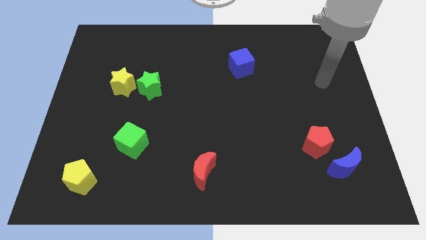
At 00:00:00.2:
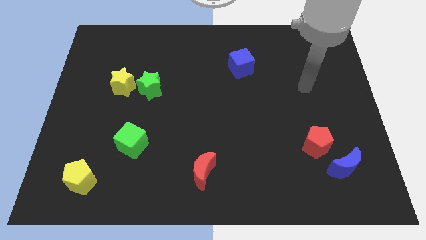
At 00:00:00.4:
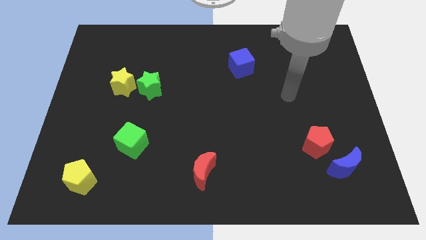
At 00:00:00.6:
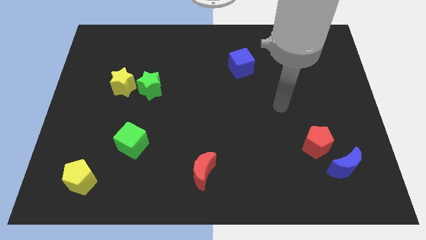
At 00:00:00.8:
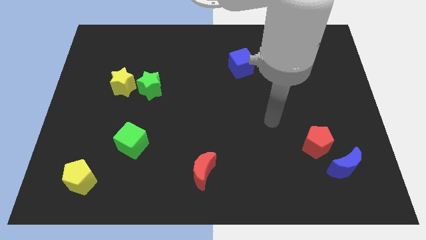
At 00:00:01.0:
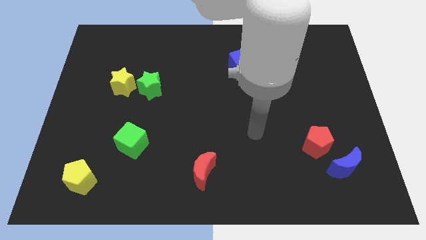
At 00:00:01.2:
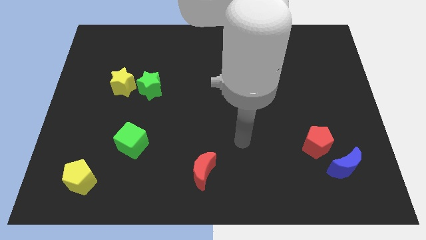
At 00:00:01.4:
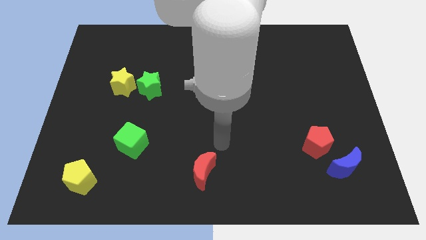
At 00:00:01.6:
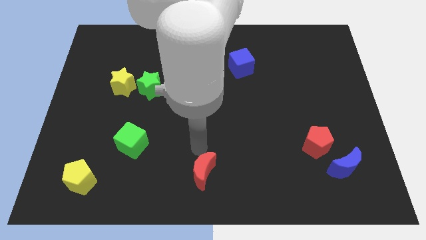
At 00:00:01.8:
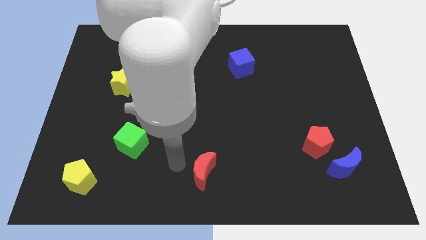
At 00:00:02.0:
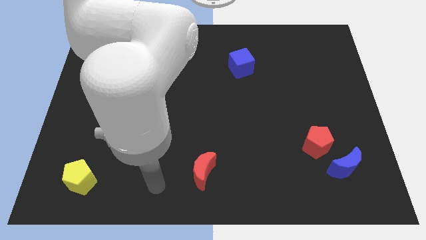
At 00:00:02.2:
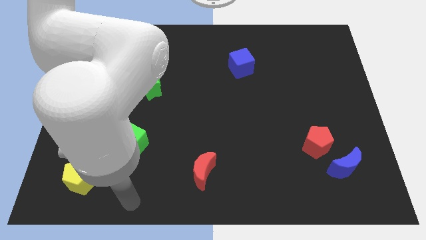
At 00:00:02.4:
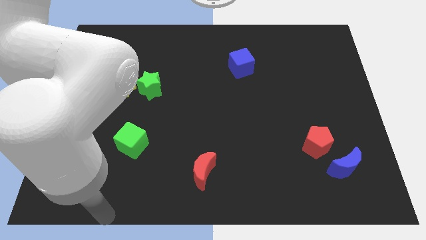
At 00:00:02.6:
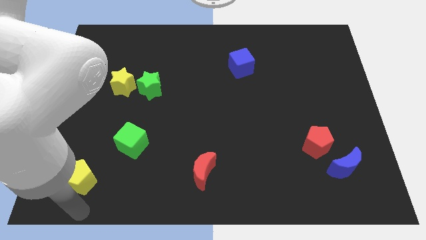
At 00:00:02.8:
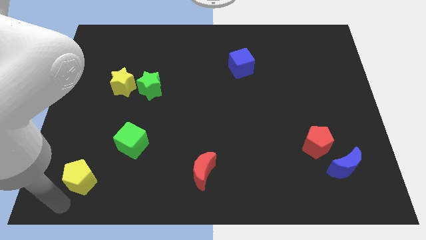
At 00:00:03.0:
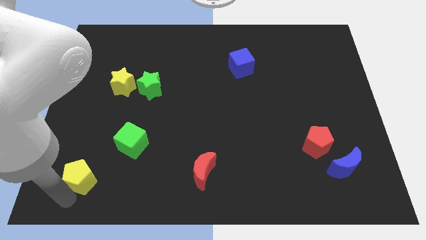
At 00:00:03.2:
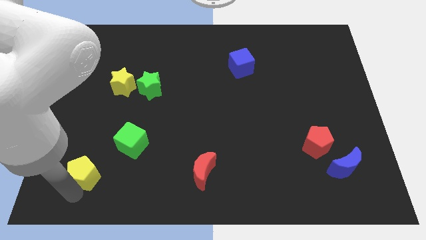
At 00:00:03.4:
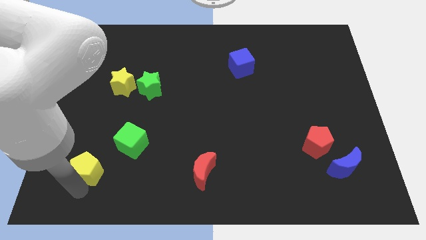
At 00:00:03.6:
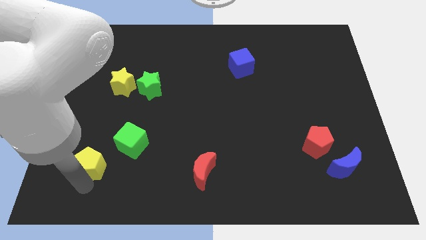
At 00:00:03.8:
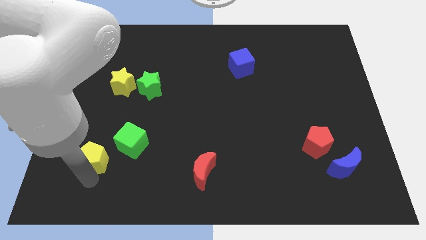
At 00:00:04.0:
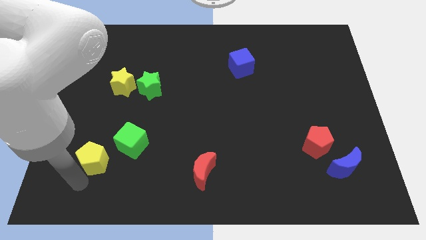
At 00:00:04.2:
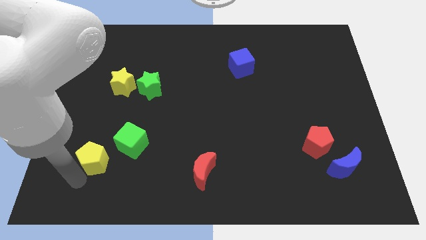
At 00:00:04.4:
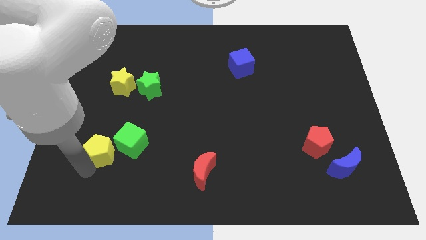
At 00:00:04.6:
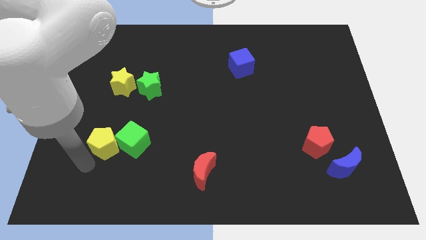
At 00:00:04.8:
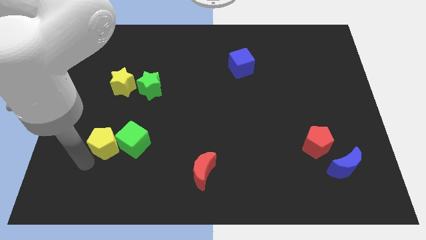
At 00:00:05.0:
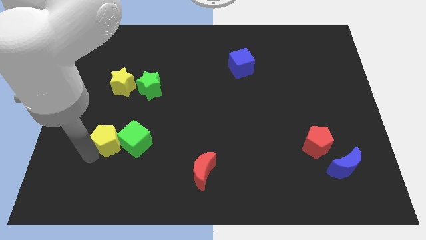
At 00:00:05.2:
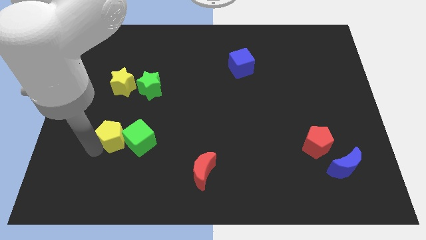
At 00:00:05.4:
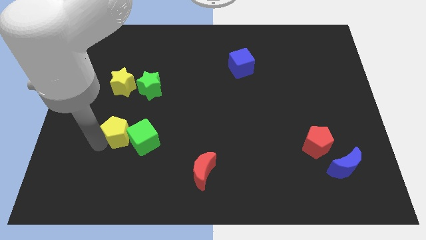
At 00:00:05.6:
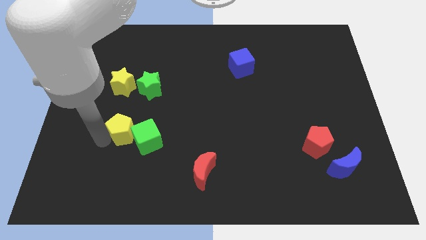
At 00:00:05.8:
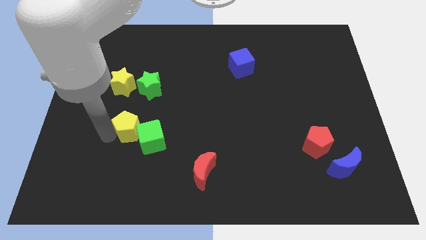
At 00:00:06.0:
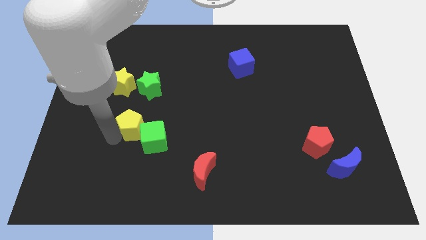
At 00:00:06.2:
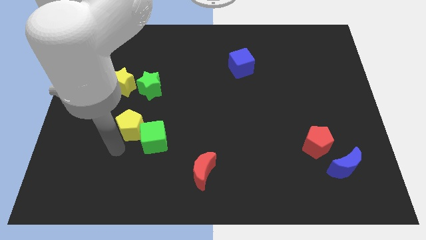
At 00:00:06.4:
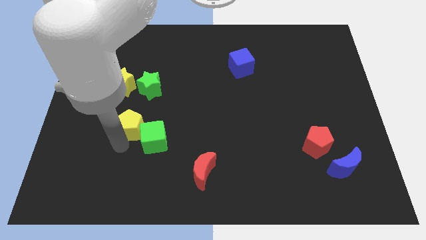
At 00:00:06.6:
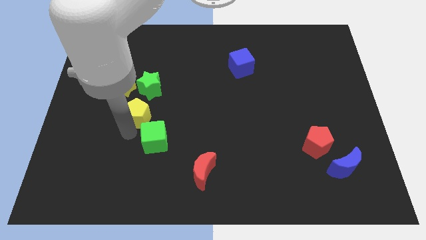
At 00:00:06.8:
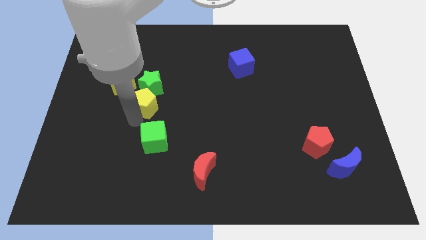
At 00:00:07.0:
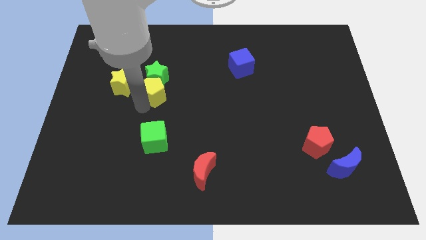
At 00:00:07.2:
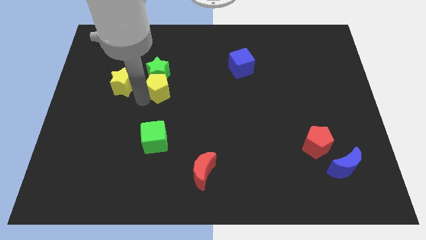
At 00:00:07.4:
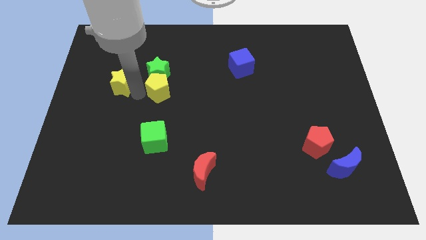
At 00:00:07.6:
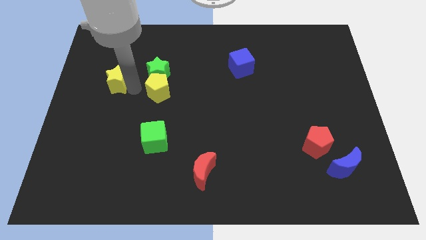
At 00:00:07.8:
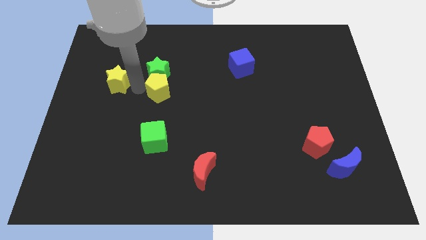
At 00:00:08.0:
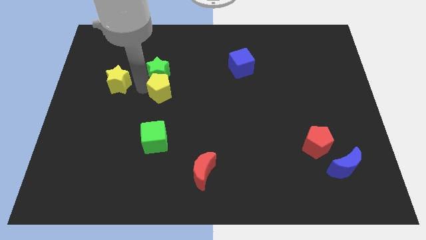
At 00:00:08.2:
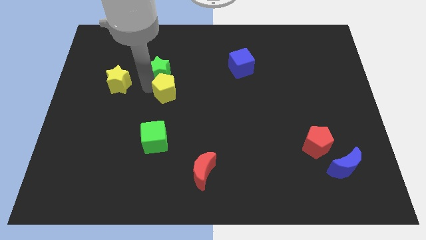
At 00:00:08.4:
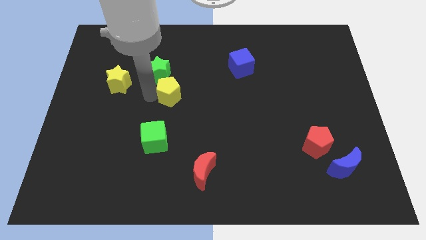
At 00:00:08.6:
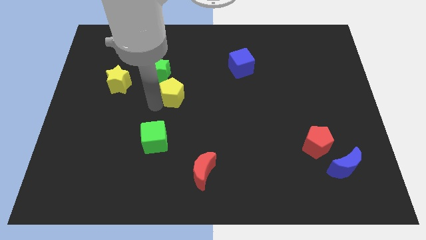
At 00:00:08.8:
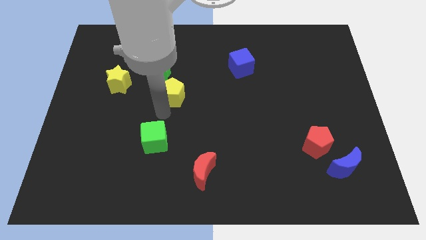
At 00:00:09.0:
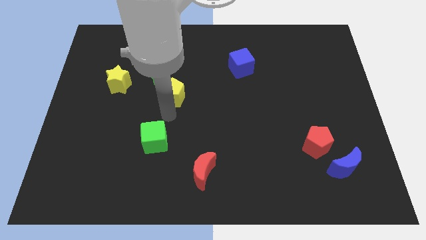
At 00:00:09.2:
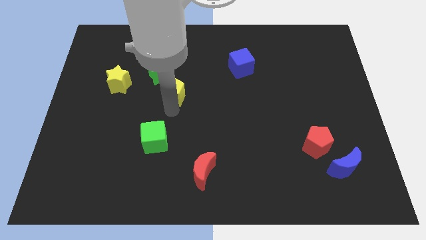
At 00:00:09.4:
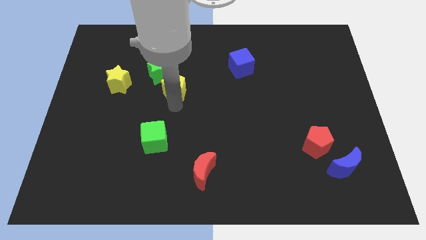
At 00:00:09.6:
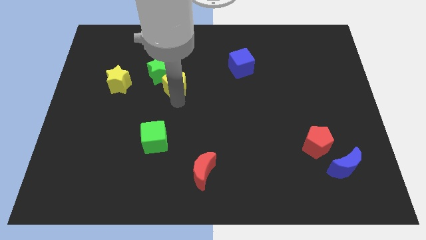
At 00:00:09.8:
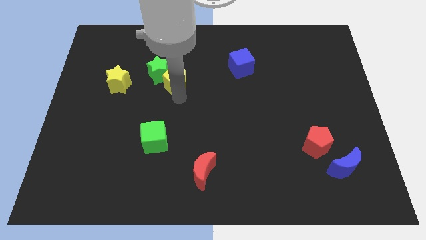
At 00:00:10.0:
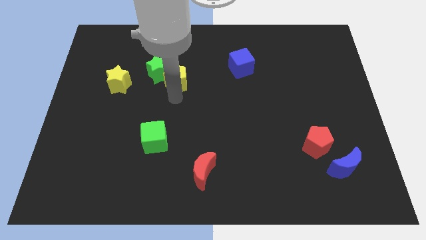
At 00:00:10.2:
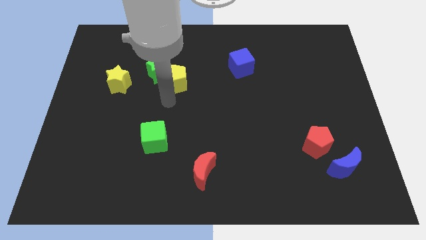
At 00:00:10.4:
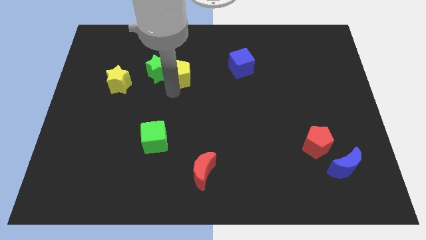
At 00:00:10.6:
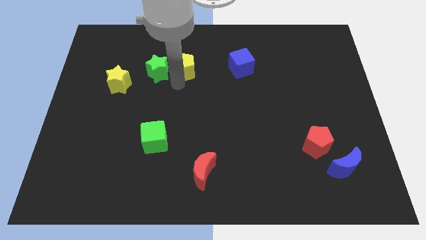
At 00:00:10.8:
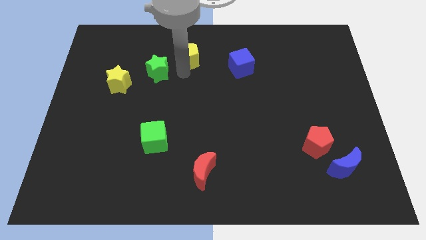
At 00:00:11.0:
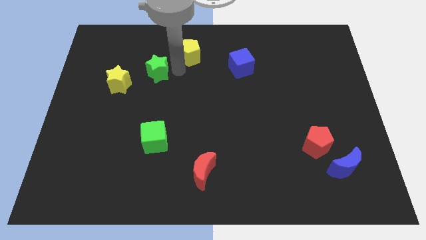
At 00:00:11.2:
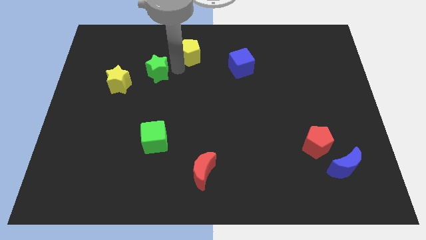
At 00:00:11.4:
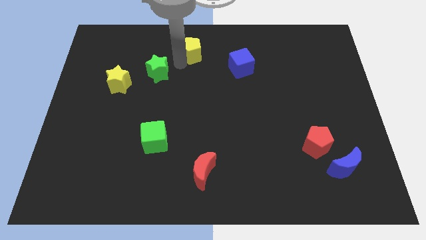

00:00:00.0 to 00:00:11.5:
move the yellow pentagon to the towards your base
